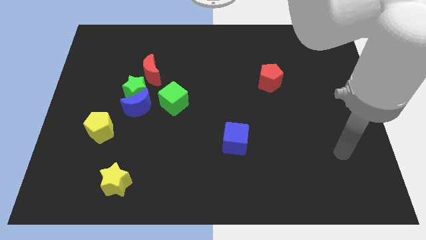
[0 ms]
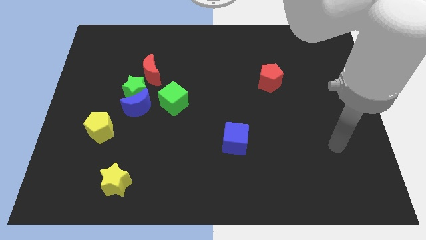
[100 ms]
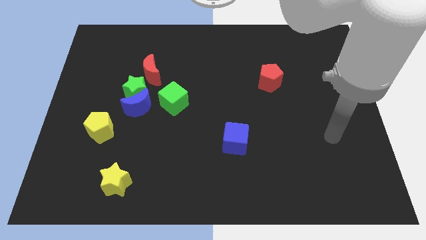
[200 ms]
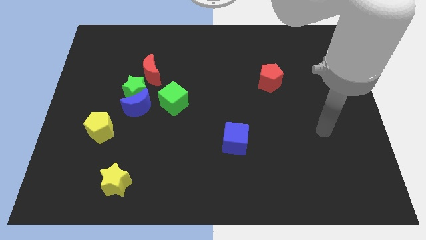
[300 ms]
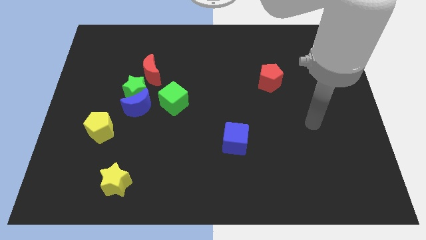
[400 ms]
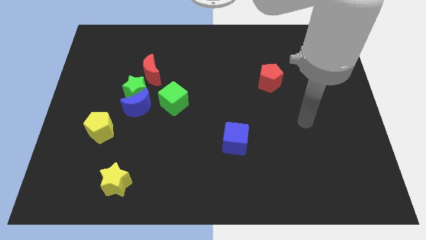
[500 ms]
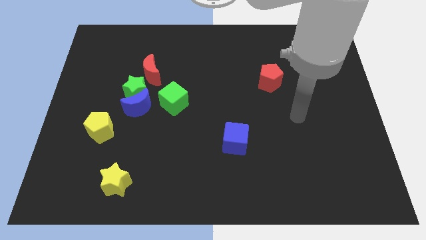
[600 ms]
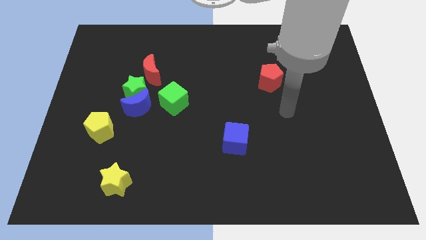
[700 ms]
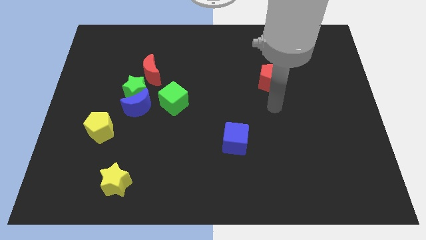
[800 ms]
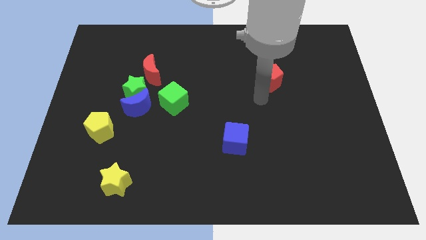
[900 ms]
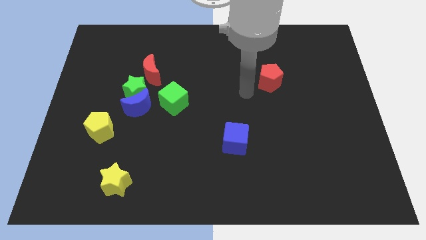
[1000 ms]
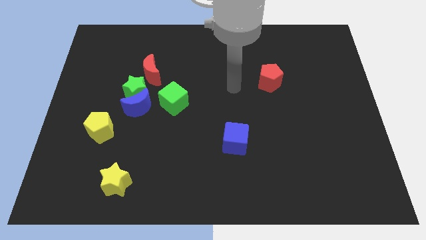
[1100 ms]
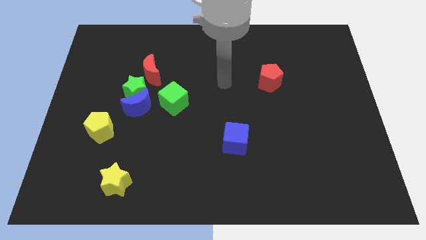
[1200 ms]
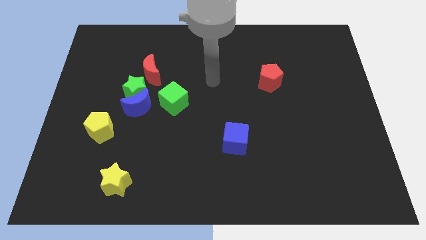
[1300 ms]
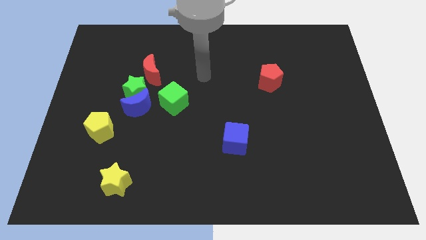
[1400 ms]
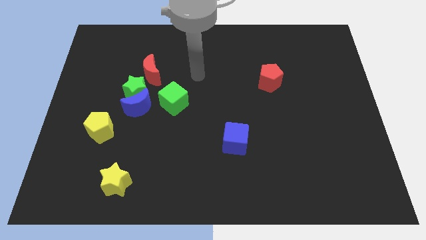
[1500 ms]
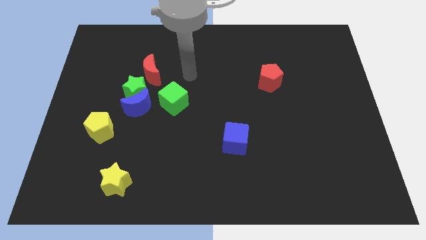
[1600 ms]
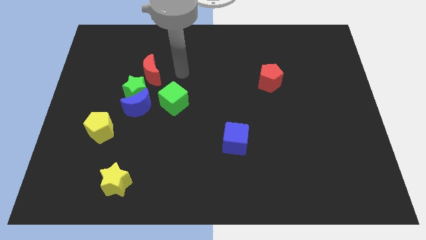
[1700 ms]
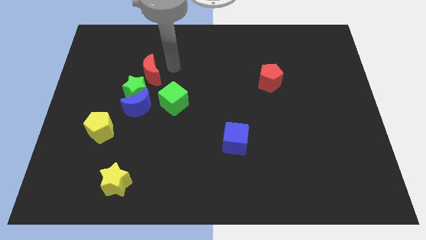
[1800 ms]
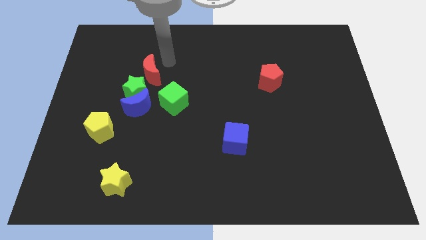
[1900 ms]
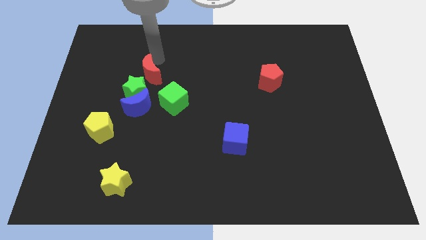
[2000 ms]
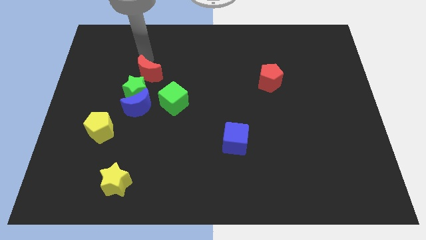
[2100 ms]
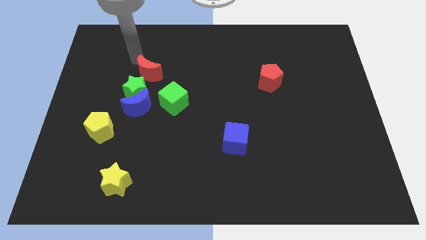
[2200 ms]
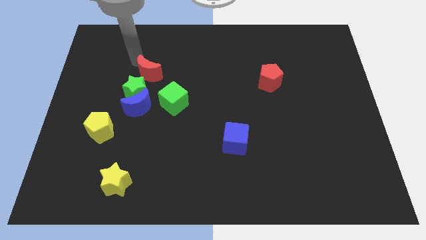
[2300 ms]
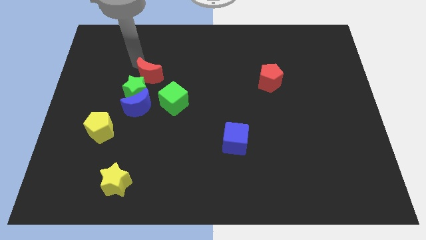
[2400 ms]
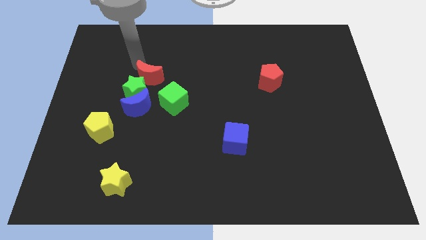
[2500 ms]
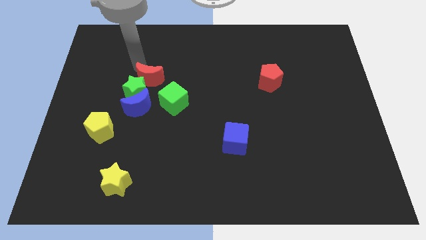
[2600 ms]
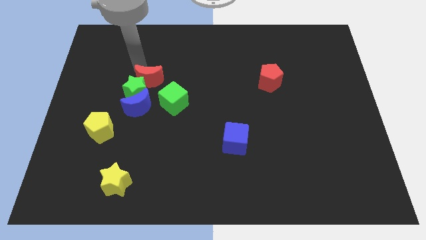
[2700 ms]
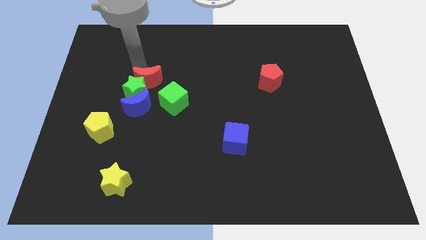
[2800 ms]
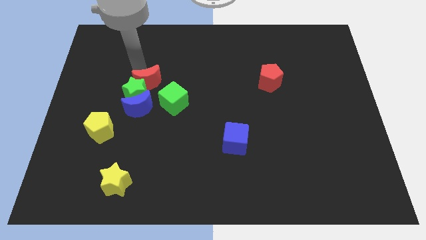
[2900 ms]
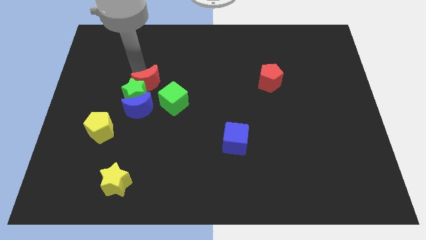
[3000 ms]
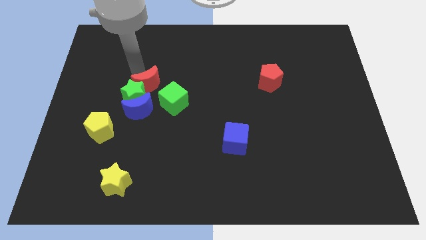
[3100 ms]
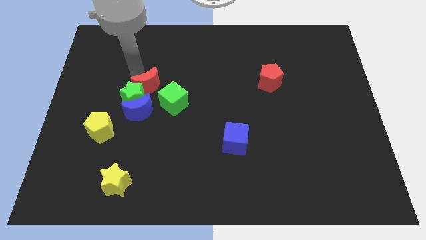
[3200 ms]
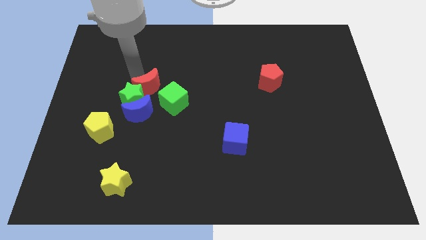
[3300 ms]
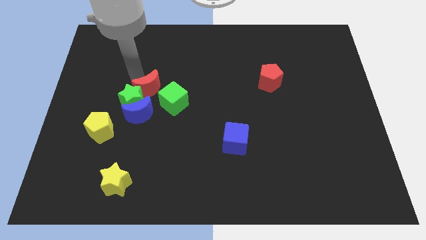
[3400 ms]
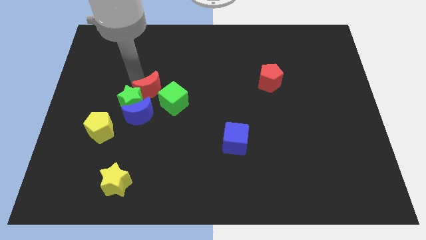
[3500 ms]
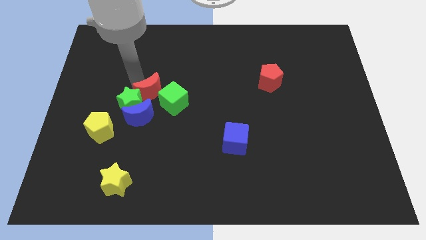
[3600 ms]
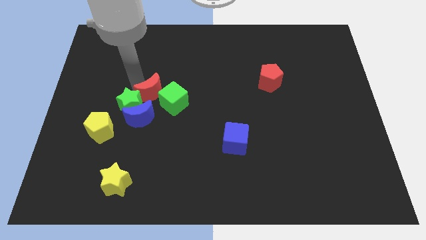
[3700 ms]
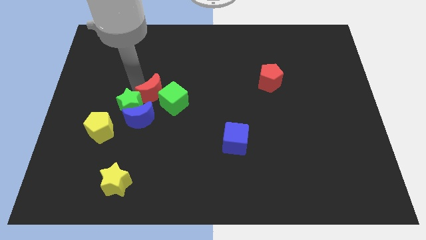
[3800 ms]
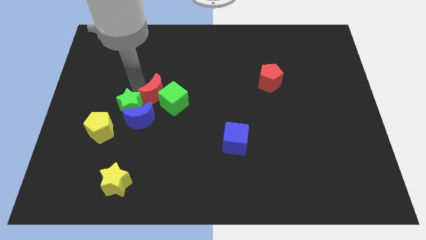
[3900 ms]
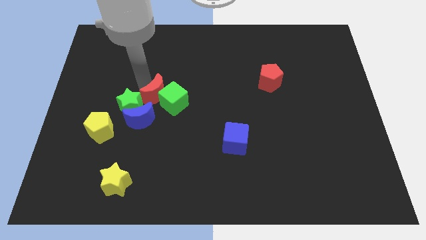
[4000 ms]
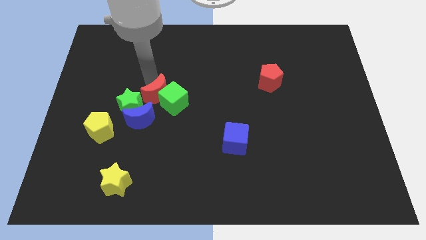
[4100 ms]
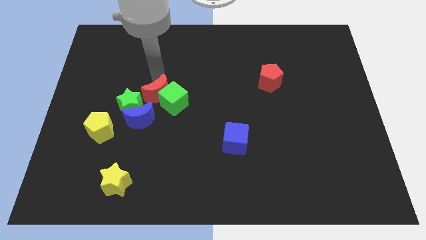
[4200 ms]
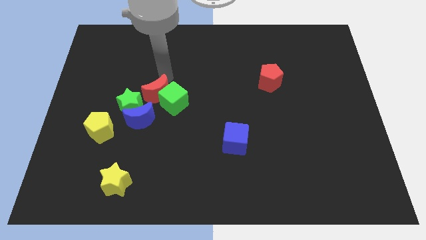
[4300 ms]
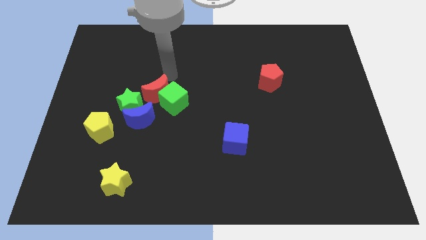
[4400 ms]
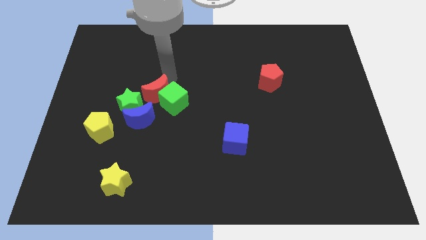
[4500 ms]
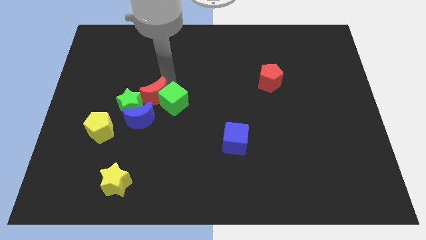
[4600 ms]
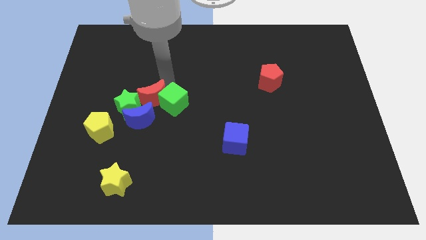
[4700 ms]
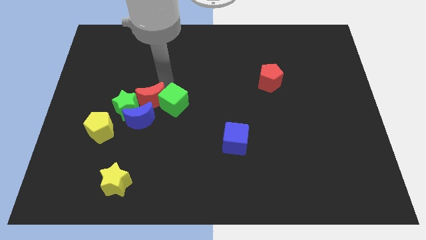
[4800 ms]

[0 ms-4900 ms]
move the red moon to the blue moon

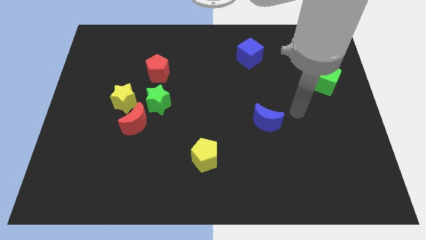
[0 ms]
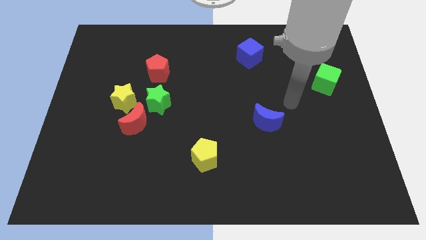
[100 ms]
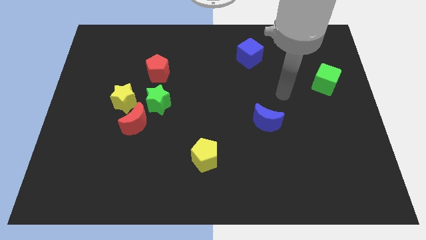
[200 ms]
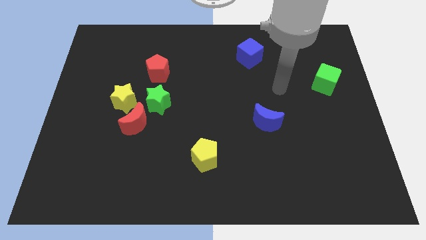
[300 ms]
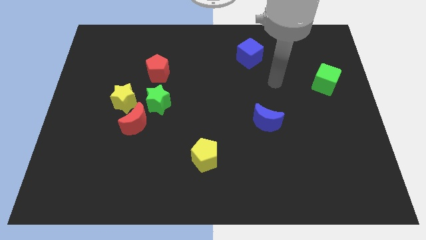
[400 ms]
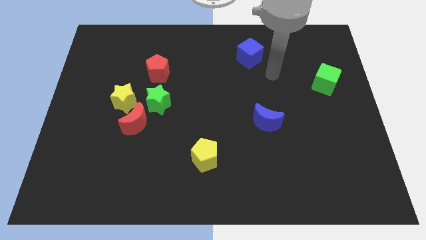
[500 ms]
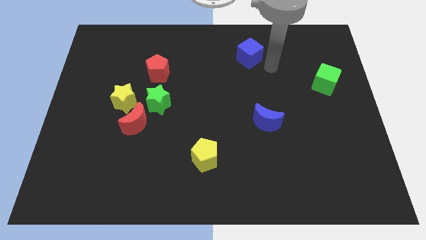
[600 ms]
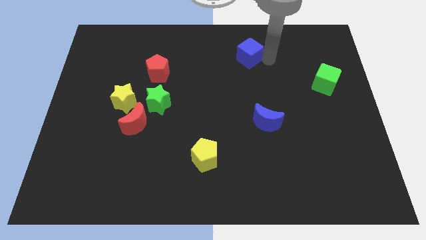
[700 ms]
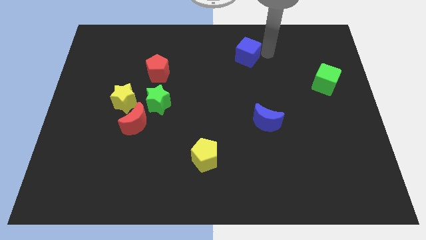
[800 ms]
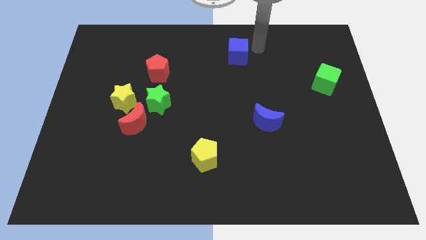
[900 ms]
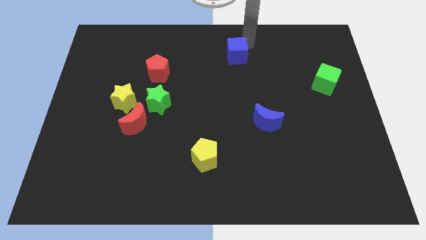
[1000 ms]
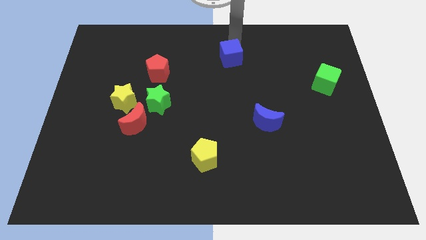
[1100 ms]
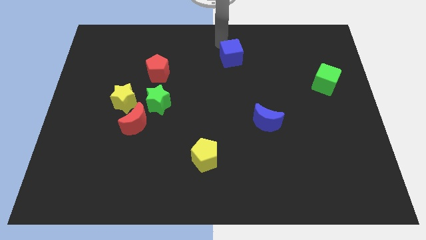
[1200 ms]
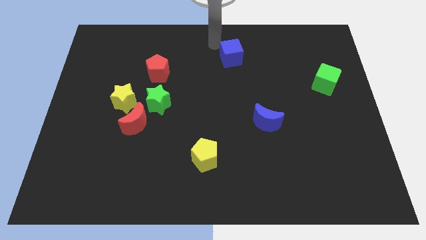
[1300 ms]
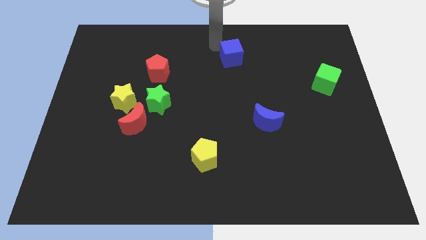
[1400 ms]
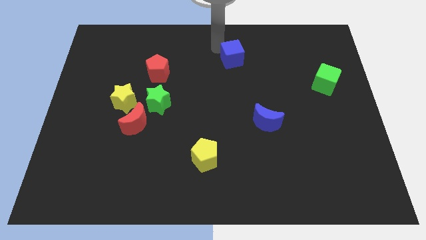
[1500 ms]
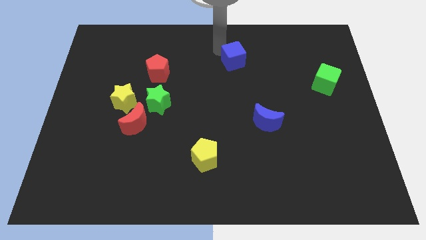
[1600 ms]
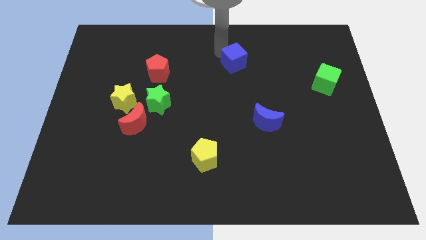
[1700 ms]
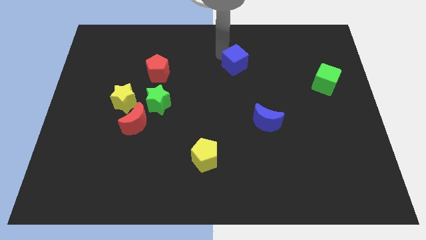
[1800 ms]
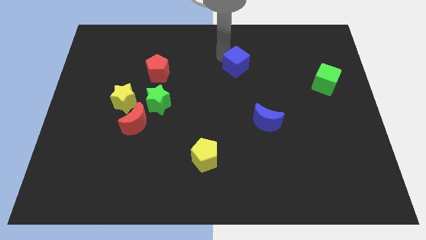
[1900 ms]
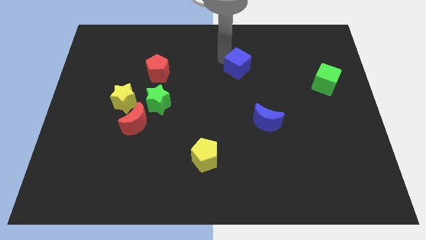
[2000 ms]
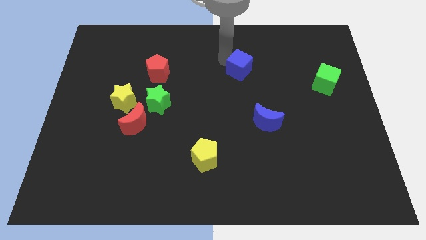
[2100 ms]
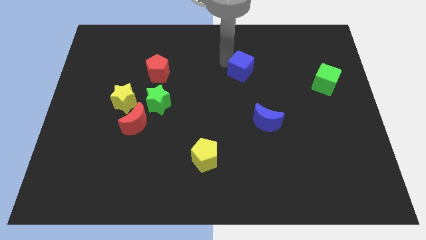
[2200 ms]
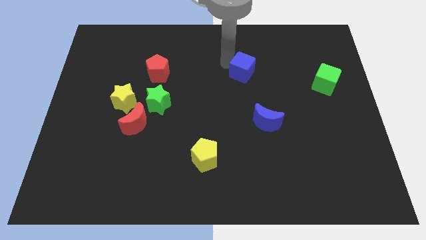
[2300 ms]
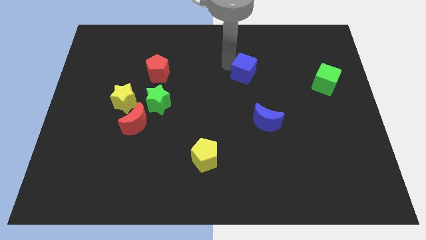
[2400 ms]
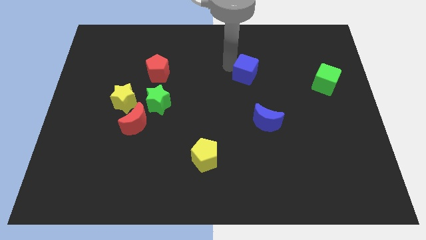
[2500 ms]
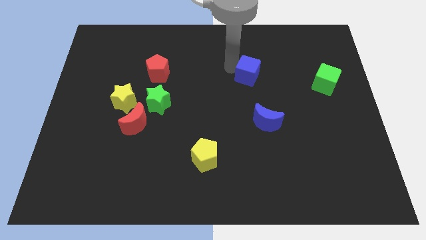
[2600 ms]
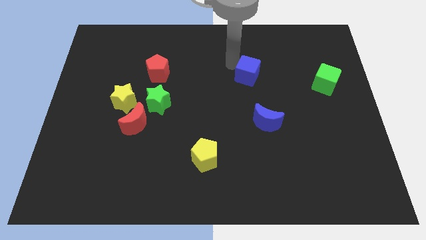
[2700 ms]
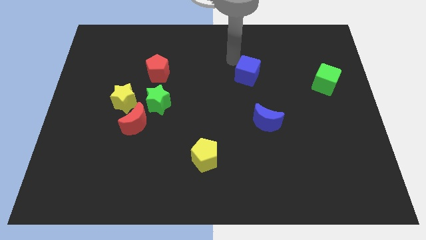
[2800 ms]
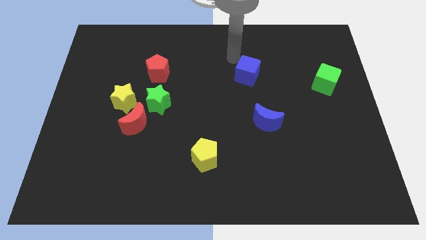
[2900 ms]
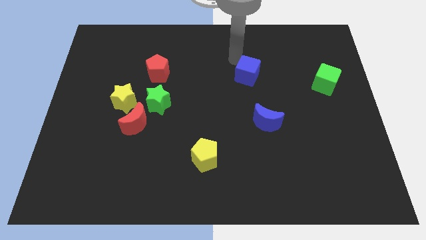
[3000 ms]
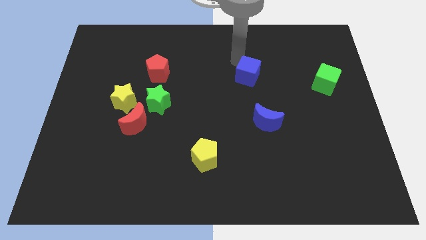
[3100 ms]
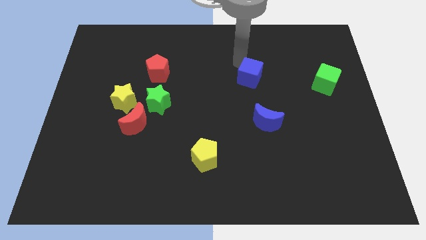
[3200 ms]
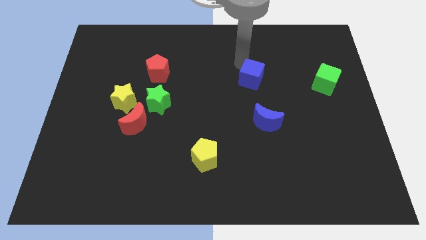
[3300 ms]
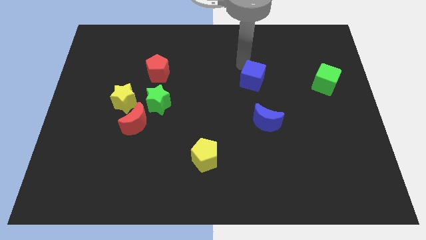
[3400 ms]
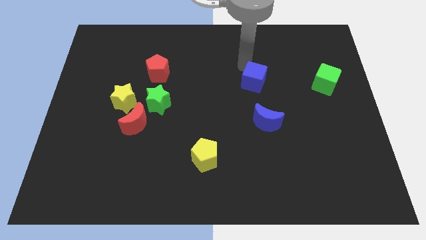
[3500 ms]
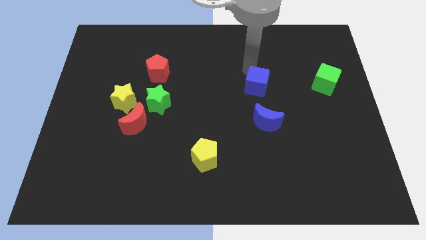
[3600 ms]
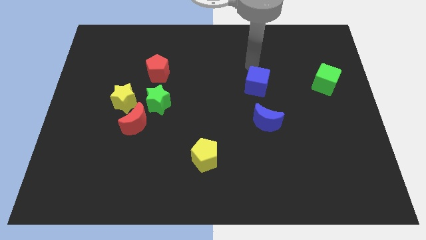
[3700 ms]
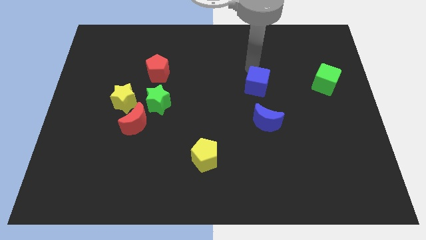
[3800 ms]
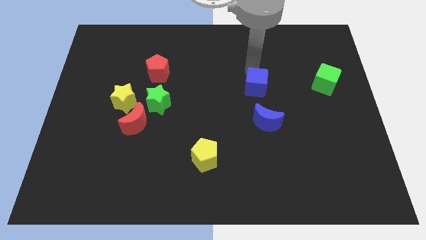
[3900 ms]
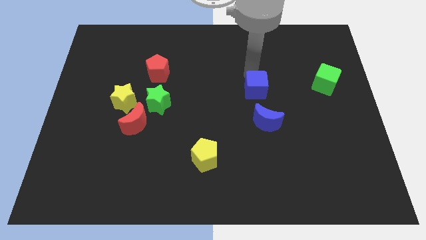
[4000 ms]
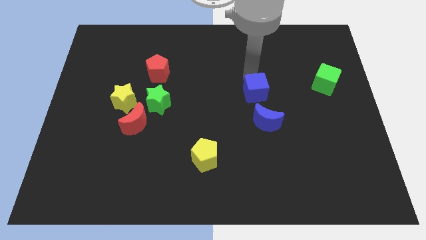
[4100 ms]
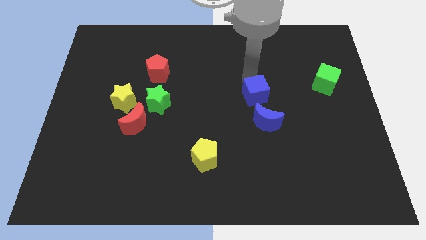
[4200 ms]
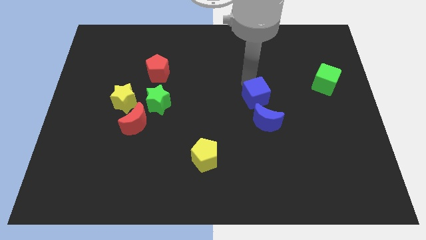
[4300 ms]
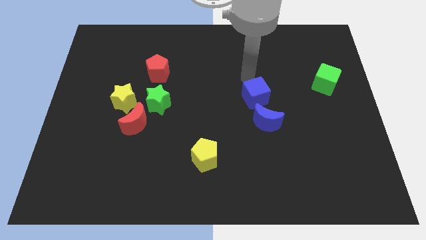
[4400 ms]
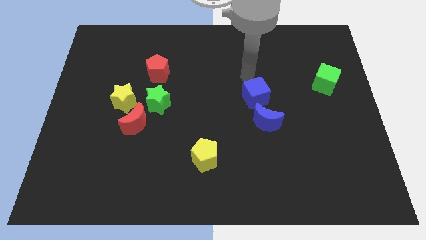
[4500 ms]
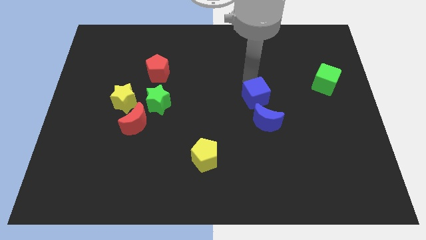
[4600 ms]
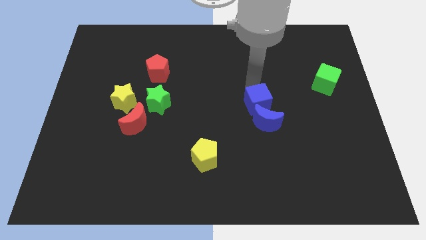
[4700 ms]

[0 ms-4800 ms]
push the blue cube close to the blue moon
